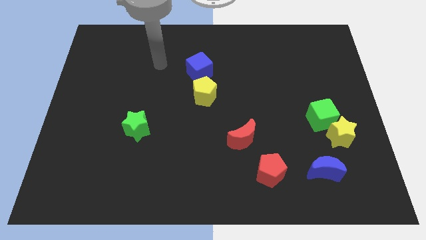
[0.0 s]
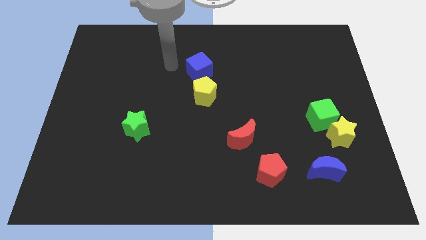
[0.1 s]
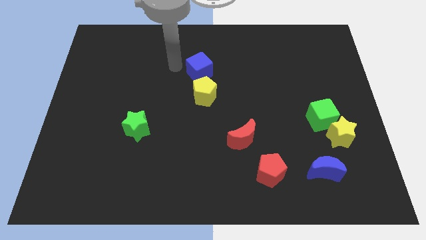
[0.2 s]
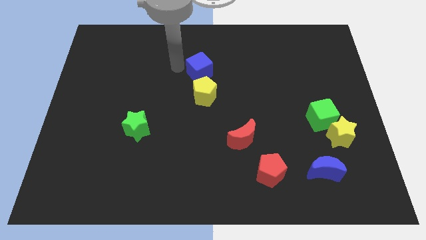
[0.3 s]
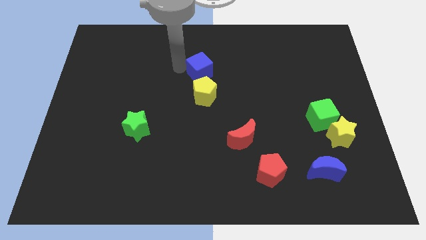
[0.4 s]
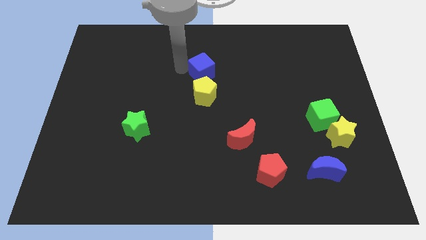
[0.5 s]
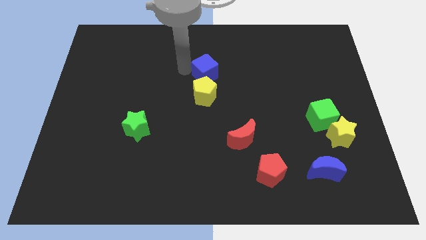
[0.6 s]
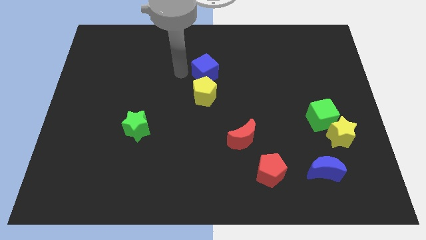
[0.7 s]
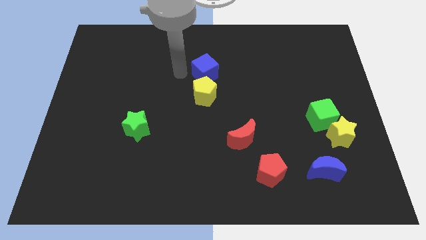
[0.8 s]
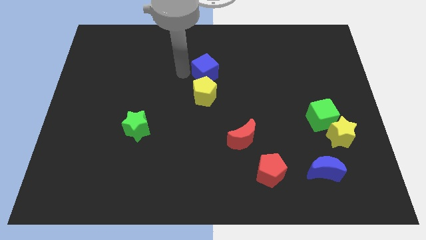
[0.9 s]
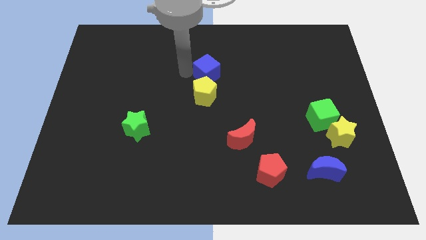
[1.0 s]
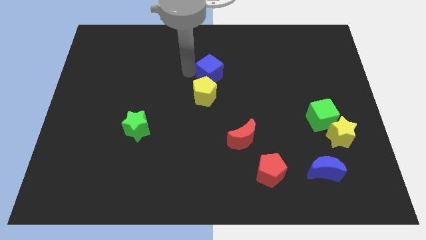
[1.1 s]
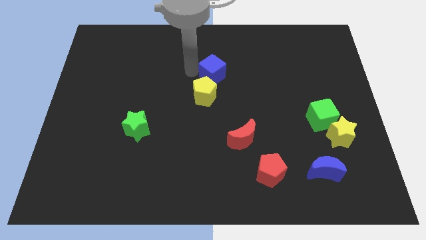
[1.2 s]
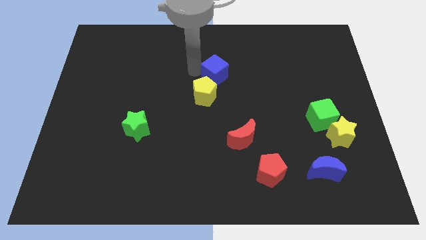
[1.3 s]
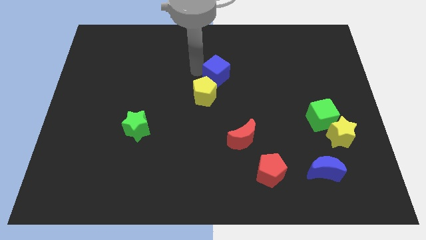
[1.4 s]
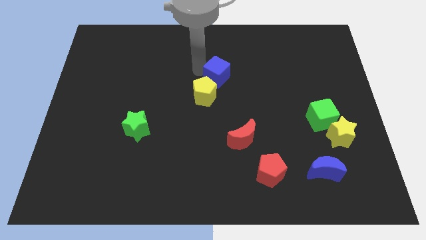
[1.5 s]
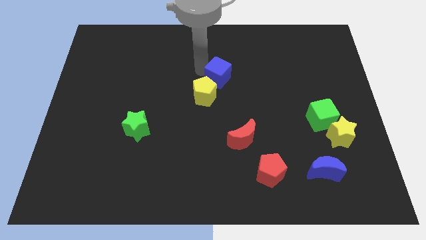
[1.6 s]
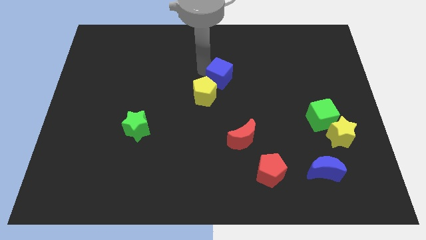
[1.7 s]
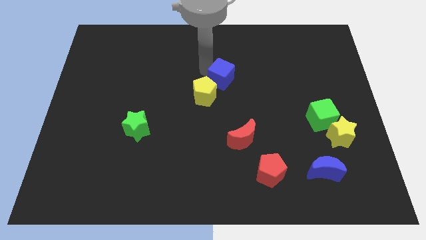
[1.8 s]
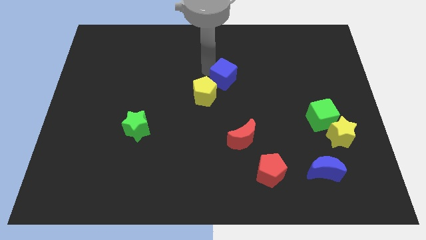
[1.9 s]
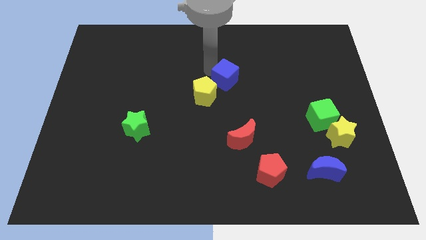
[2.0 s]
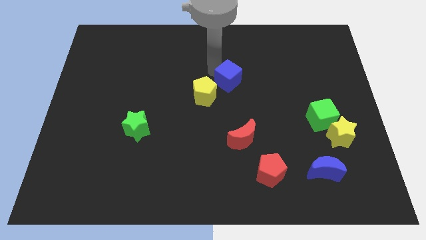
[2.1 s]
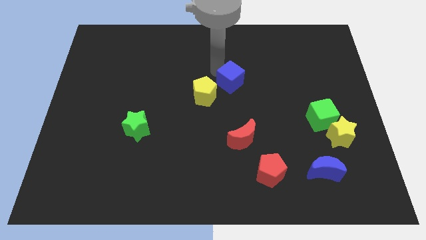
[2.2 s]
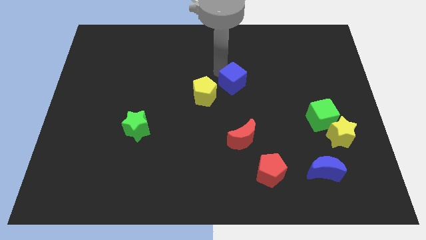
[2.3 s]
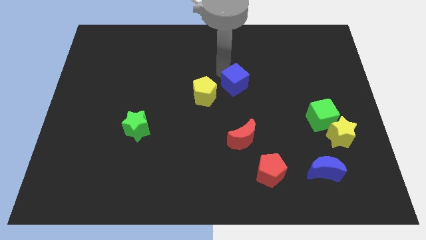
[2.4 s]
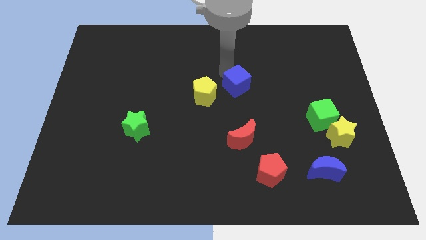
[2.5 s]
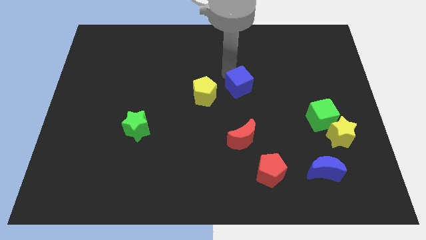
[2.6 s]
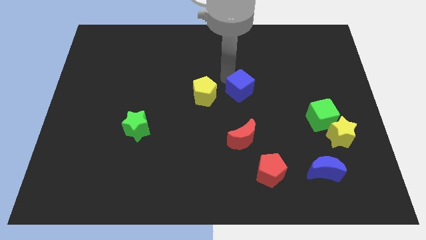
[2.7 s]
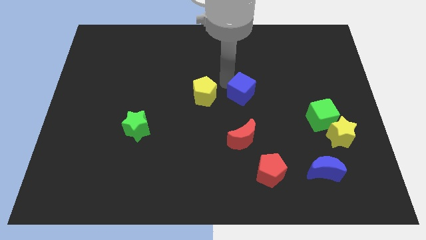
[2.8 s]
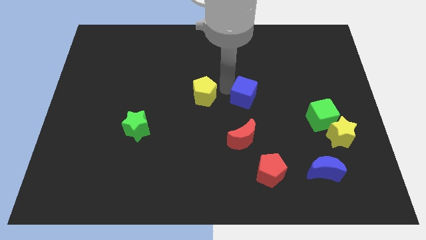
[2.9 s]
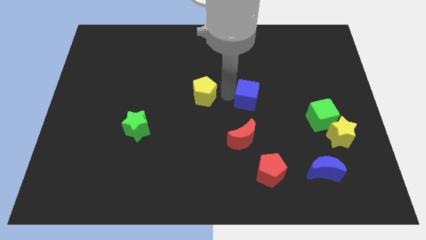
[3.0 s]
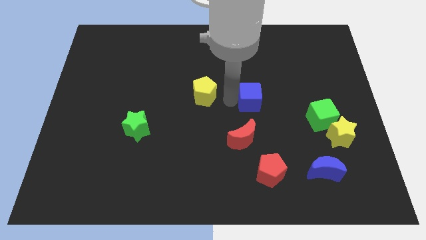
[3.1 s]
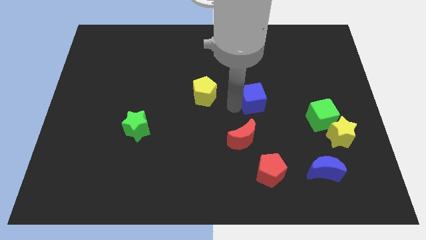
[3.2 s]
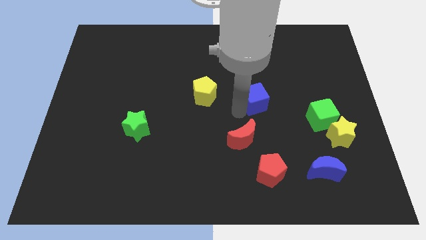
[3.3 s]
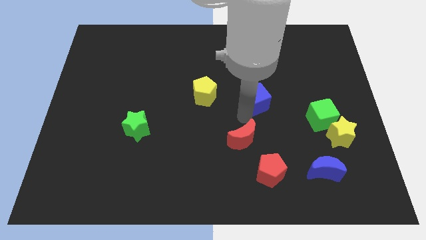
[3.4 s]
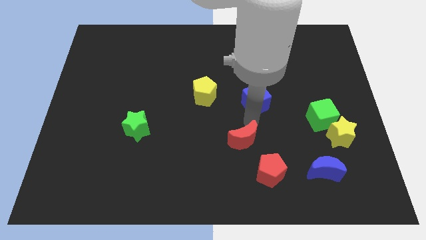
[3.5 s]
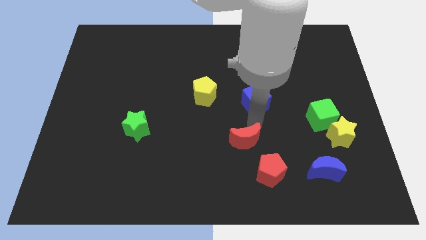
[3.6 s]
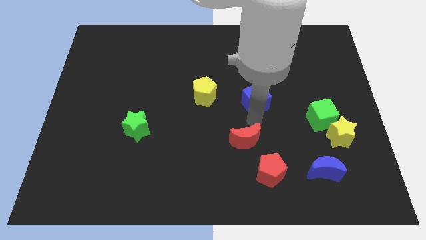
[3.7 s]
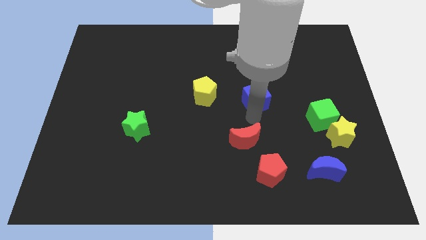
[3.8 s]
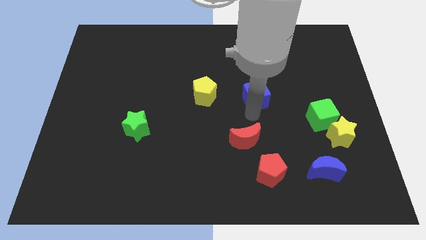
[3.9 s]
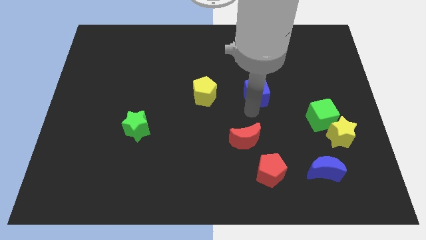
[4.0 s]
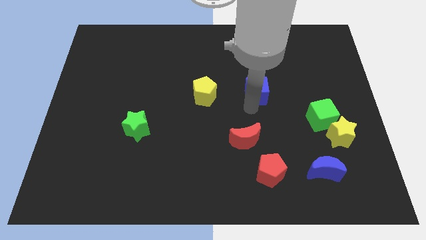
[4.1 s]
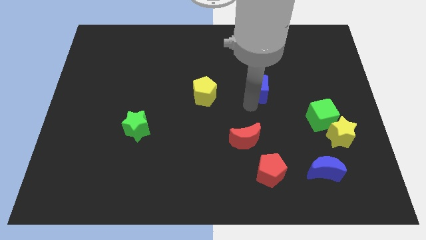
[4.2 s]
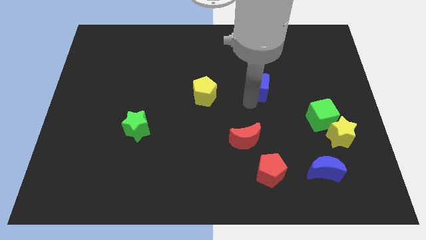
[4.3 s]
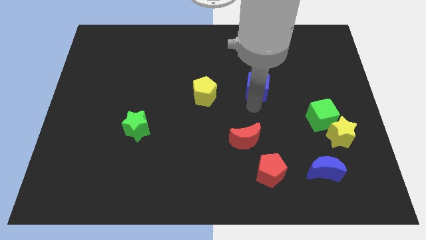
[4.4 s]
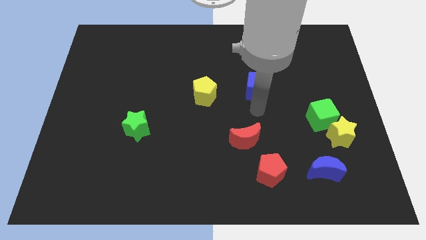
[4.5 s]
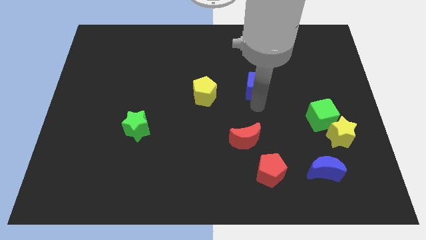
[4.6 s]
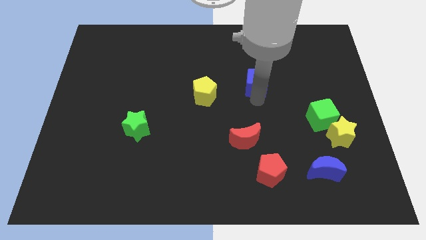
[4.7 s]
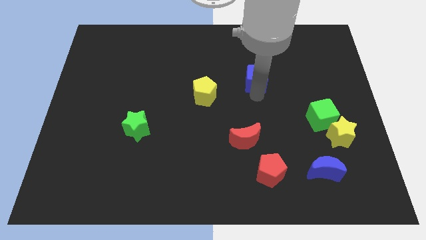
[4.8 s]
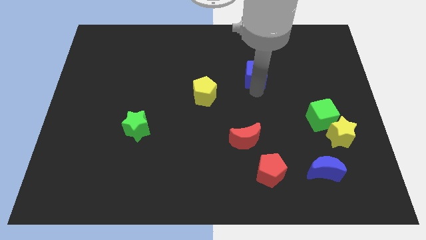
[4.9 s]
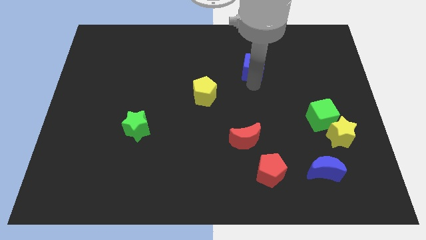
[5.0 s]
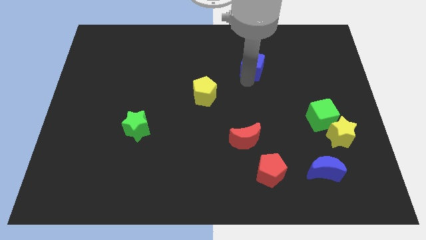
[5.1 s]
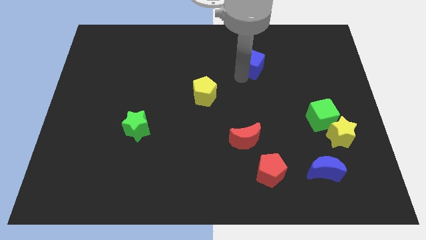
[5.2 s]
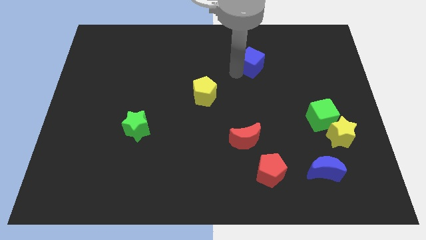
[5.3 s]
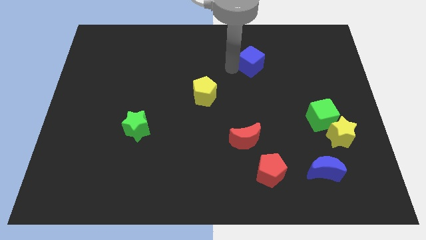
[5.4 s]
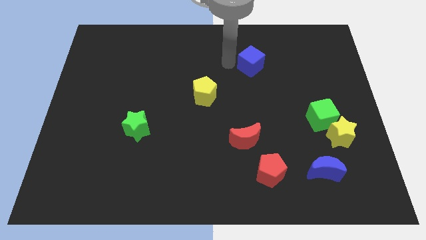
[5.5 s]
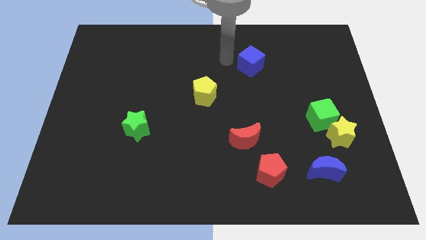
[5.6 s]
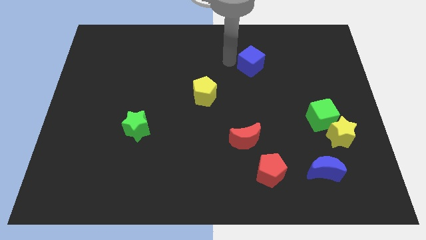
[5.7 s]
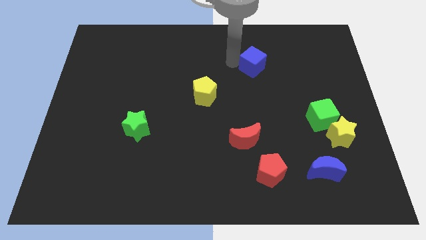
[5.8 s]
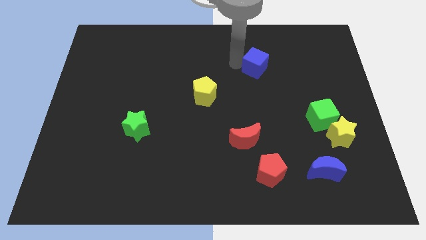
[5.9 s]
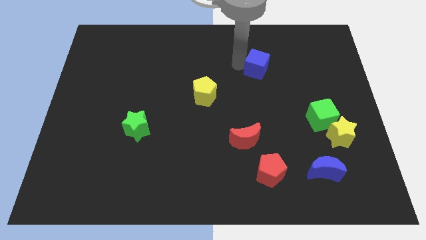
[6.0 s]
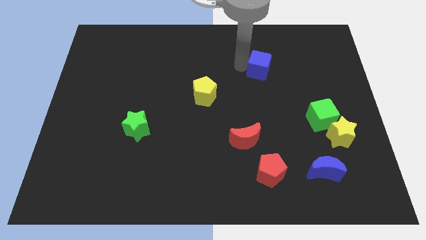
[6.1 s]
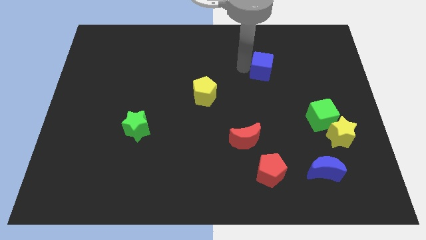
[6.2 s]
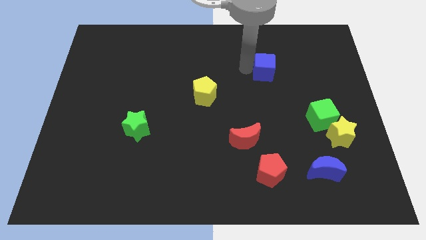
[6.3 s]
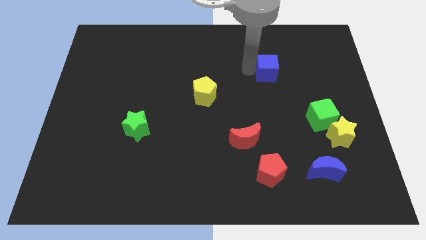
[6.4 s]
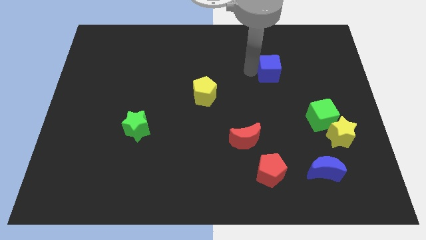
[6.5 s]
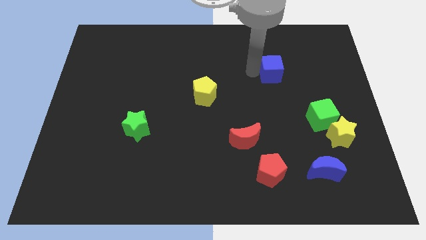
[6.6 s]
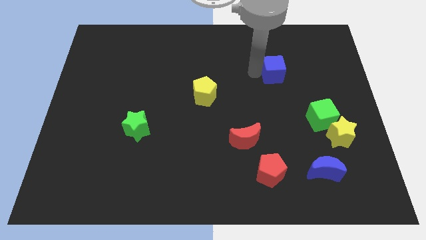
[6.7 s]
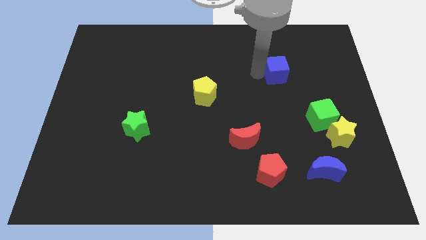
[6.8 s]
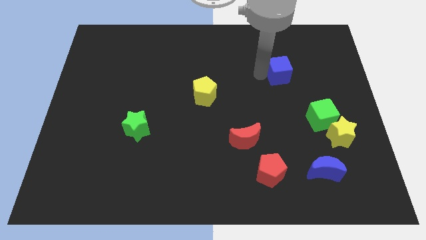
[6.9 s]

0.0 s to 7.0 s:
move the blue cube right

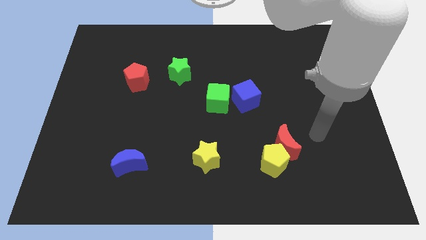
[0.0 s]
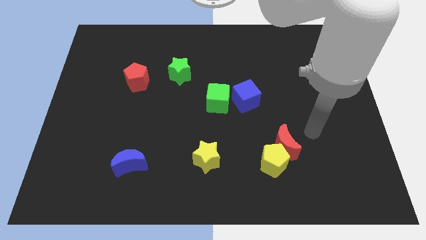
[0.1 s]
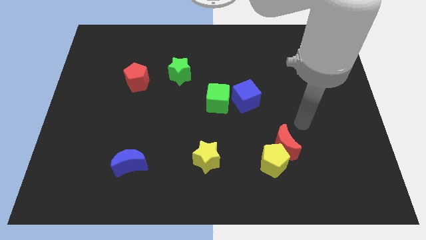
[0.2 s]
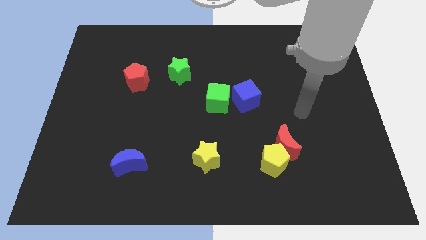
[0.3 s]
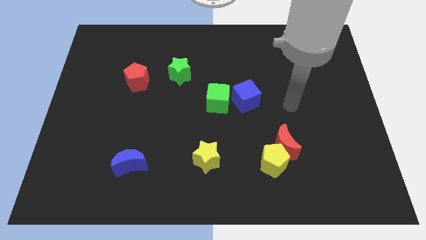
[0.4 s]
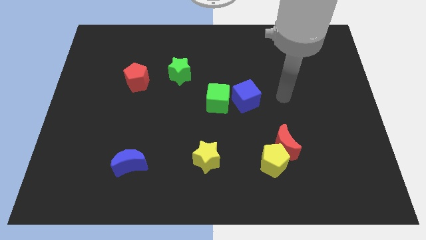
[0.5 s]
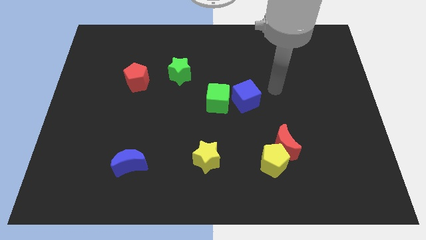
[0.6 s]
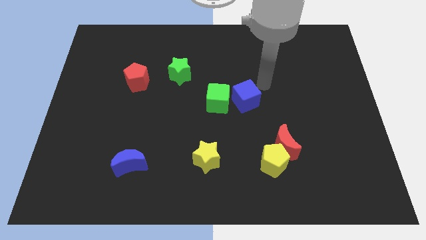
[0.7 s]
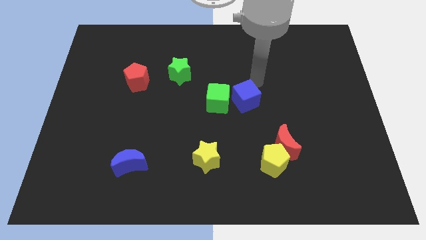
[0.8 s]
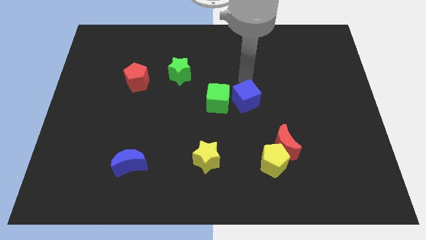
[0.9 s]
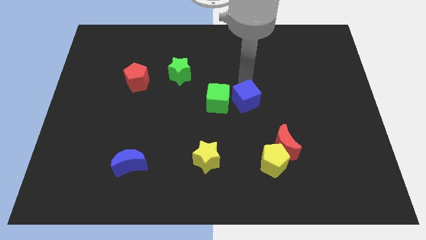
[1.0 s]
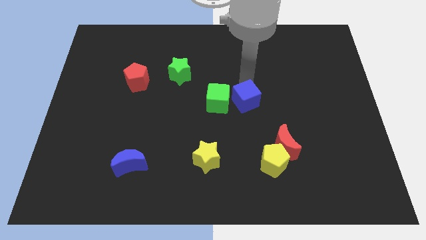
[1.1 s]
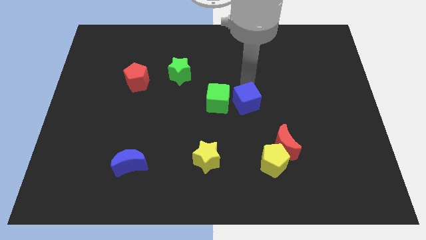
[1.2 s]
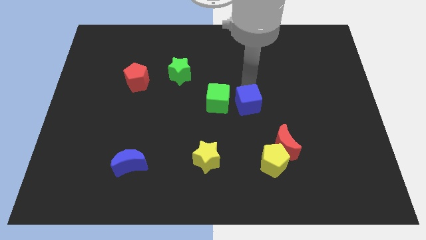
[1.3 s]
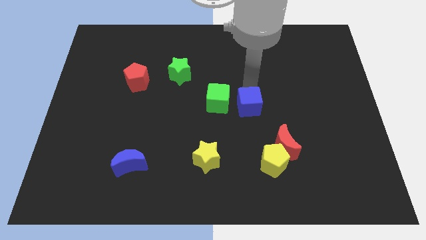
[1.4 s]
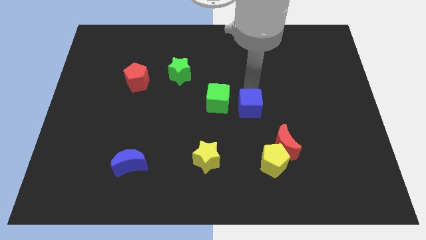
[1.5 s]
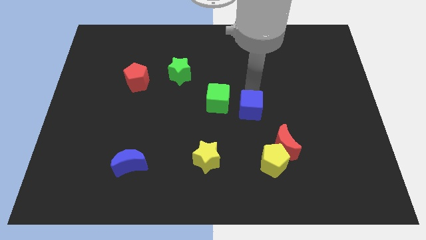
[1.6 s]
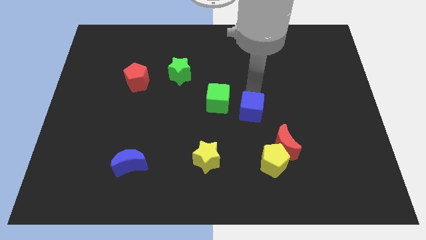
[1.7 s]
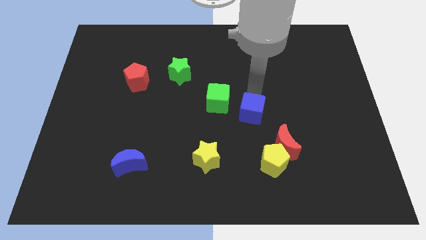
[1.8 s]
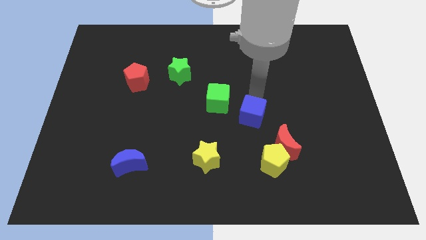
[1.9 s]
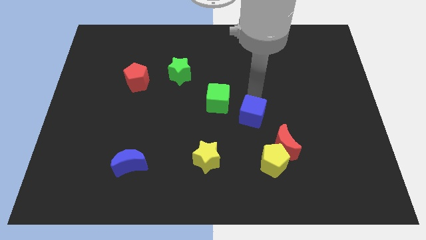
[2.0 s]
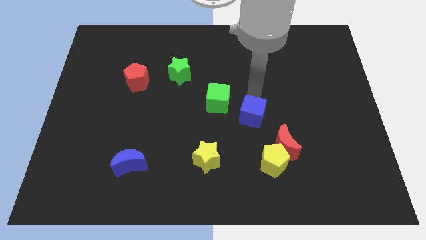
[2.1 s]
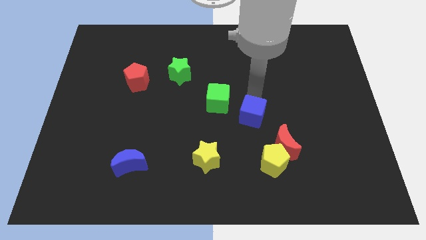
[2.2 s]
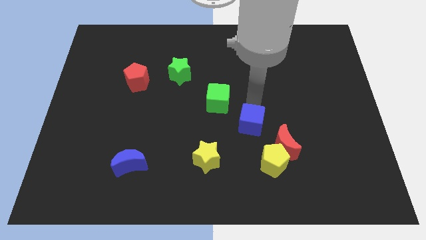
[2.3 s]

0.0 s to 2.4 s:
slightly slide the blue cube down
